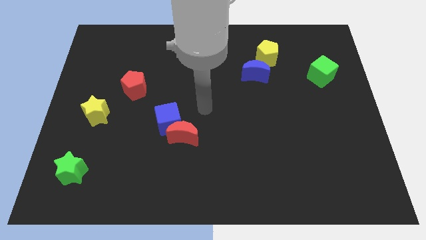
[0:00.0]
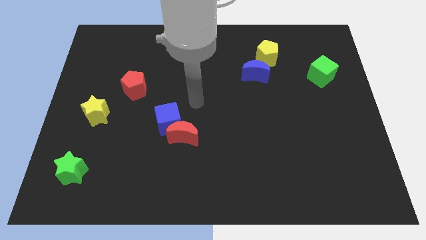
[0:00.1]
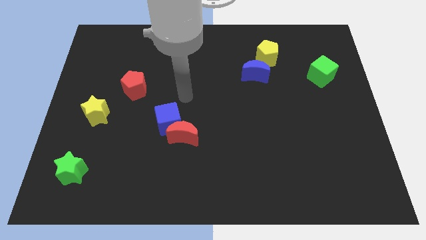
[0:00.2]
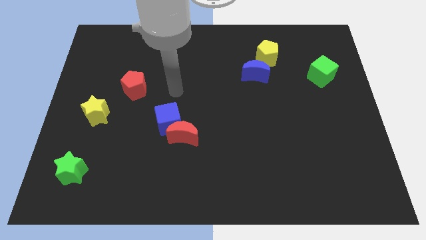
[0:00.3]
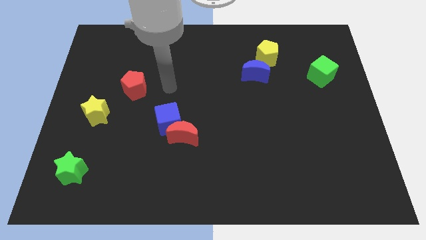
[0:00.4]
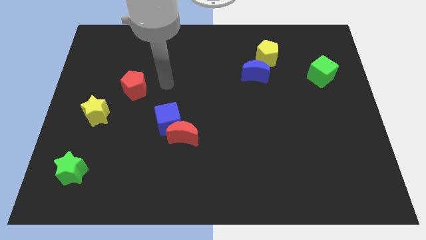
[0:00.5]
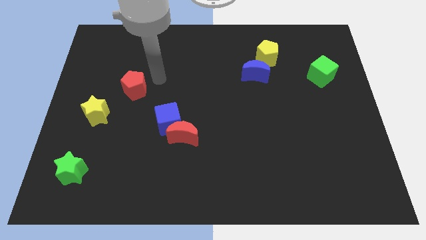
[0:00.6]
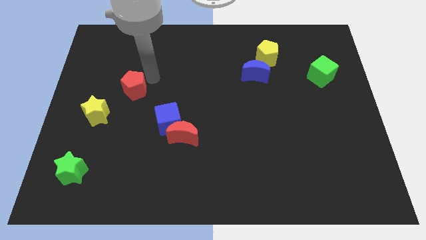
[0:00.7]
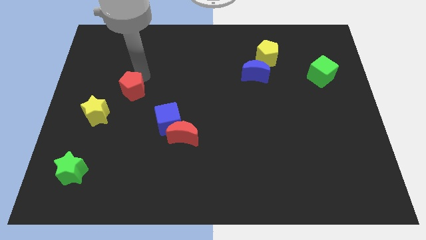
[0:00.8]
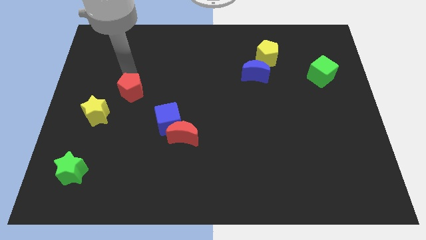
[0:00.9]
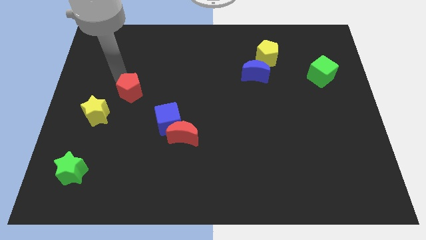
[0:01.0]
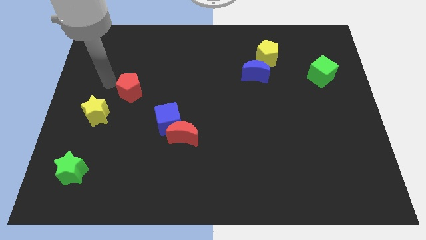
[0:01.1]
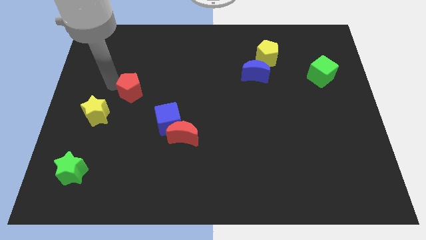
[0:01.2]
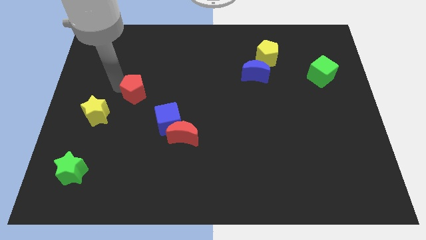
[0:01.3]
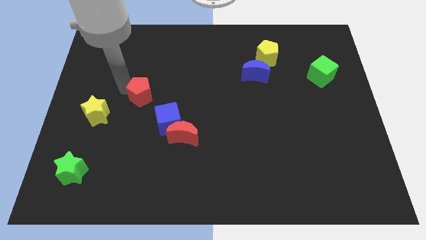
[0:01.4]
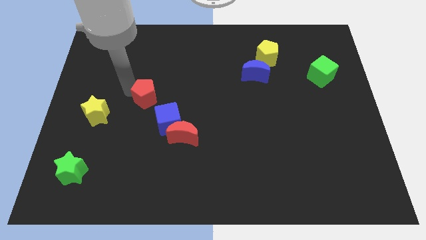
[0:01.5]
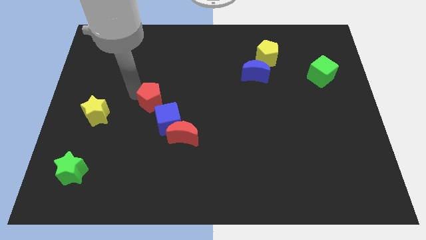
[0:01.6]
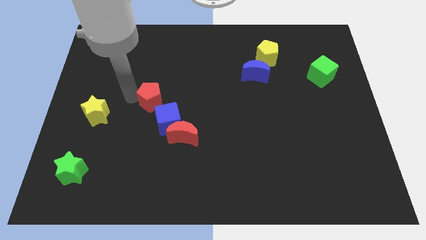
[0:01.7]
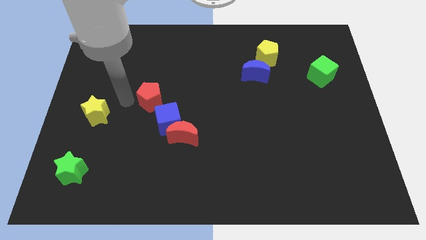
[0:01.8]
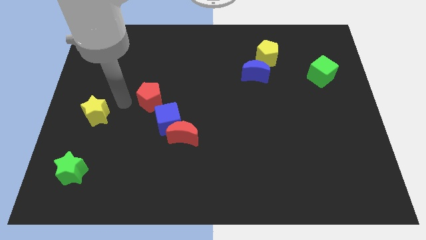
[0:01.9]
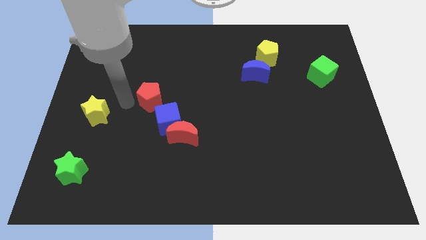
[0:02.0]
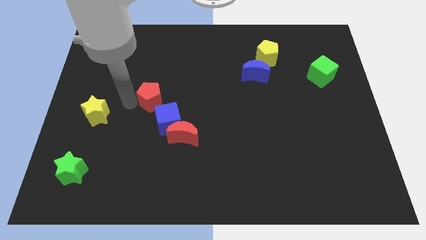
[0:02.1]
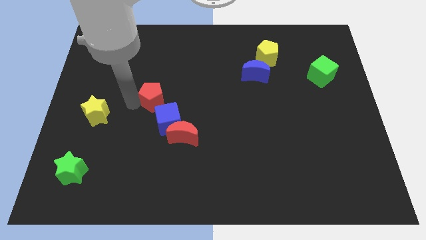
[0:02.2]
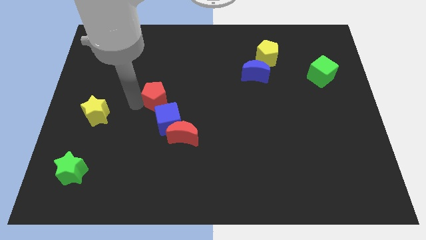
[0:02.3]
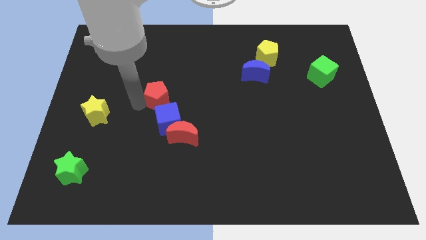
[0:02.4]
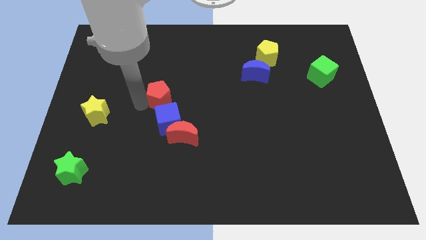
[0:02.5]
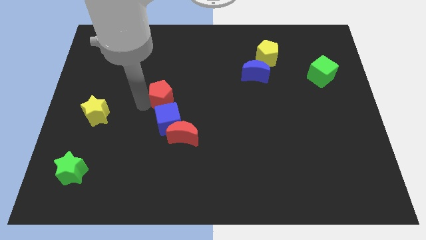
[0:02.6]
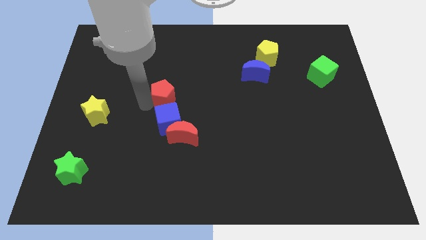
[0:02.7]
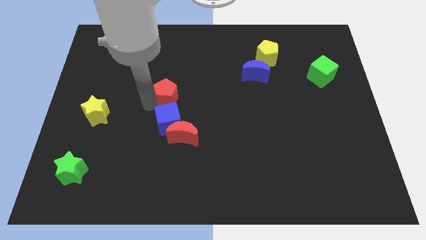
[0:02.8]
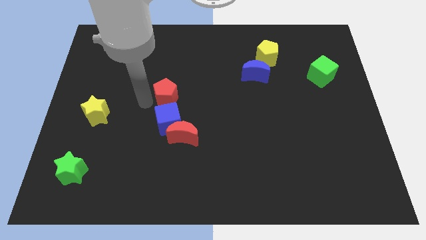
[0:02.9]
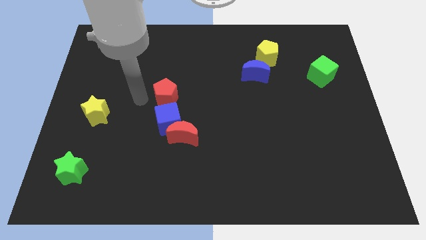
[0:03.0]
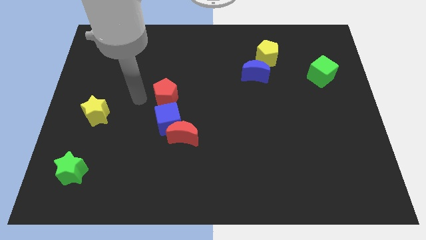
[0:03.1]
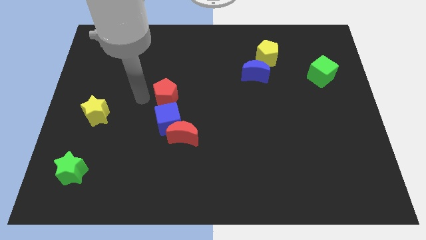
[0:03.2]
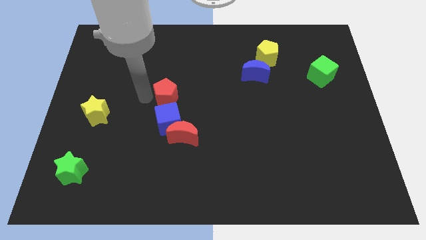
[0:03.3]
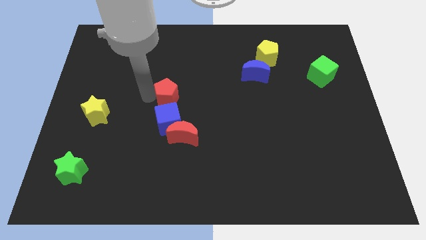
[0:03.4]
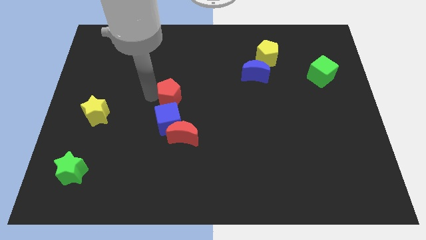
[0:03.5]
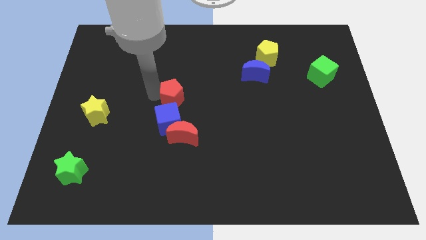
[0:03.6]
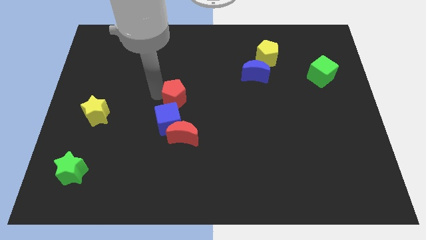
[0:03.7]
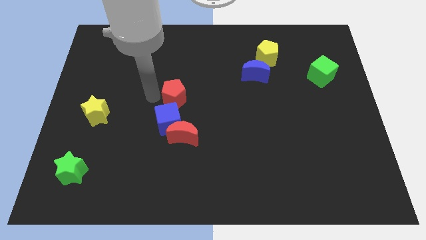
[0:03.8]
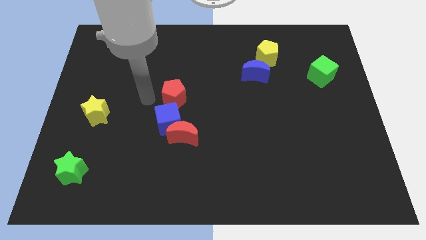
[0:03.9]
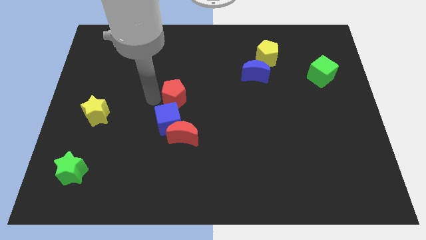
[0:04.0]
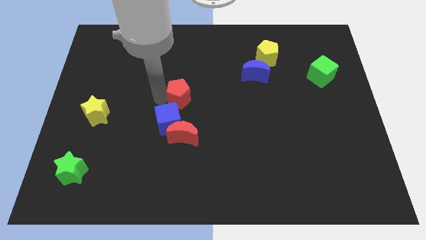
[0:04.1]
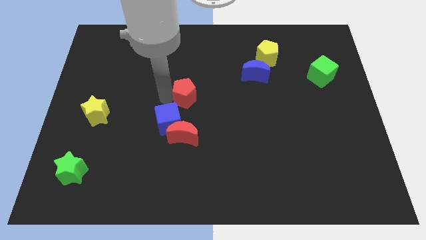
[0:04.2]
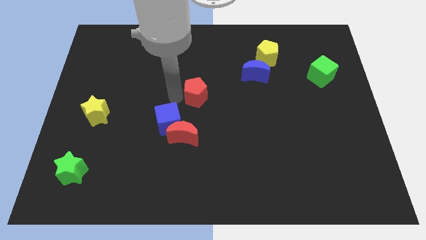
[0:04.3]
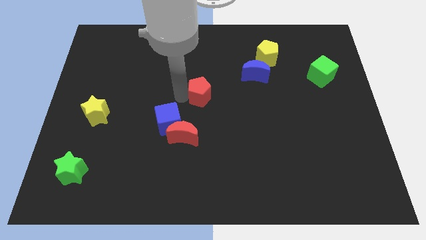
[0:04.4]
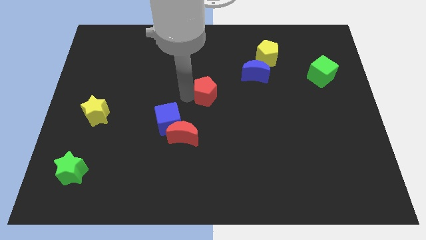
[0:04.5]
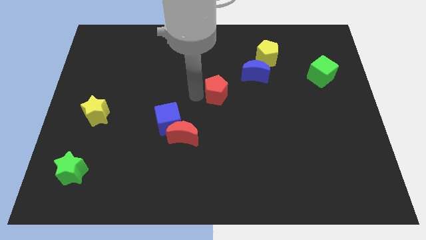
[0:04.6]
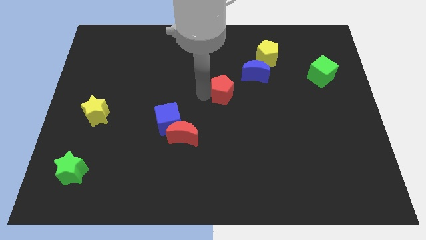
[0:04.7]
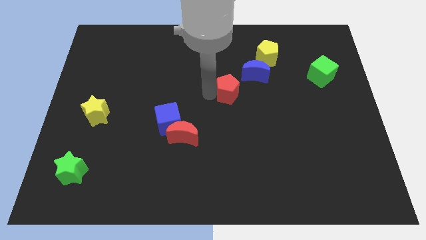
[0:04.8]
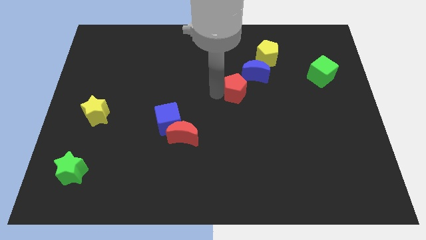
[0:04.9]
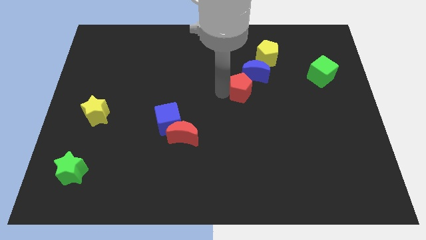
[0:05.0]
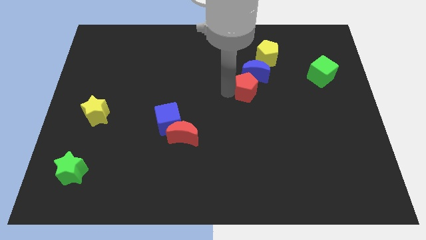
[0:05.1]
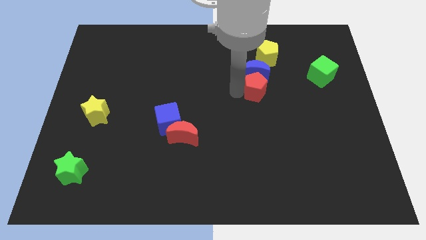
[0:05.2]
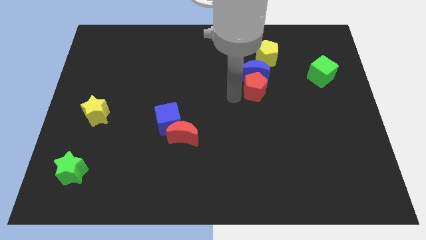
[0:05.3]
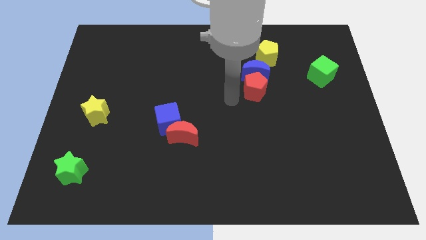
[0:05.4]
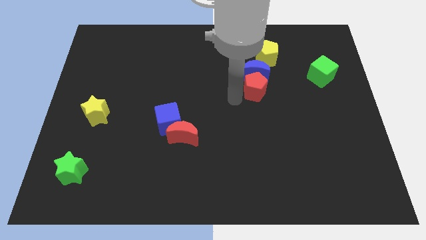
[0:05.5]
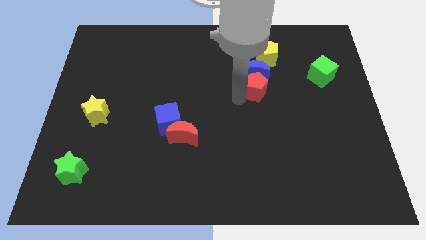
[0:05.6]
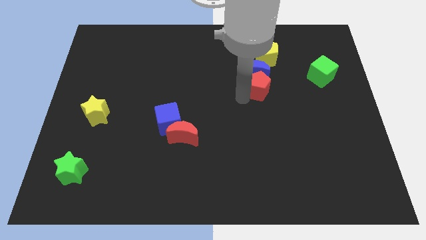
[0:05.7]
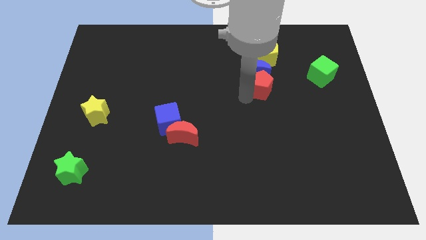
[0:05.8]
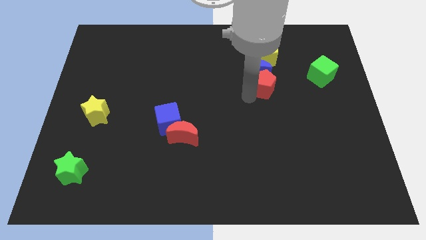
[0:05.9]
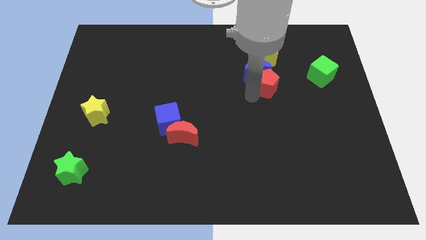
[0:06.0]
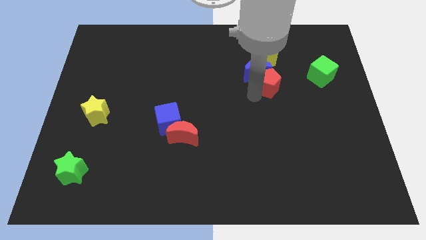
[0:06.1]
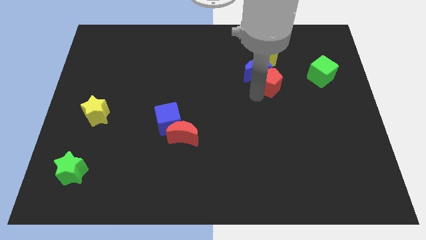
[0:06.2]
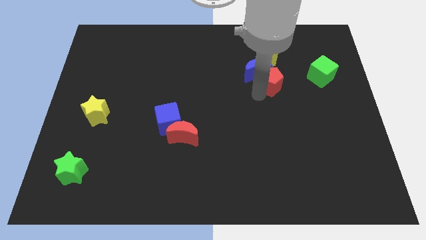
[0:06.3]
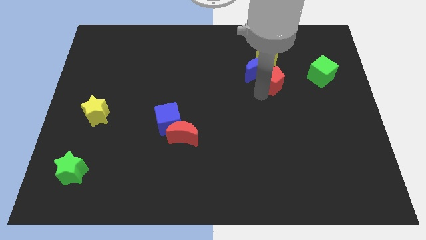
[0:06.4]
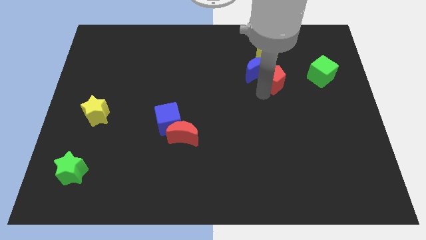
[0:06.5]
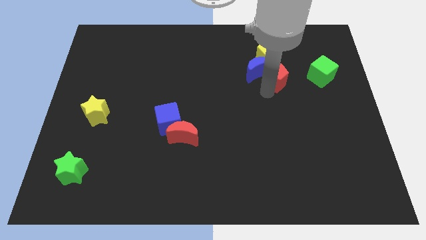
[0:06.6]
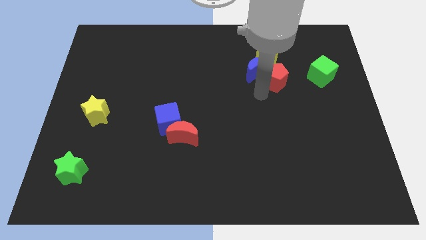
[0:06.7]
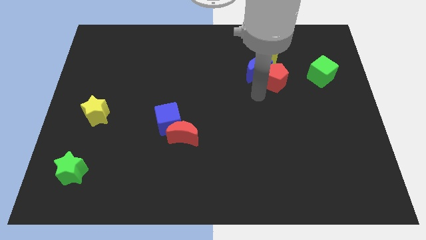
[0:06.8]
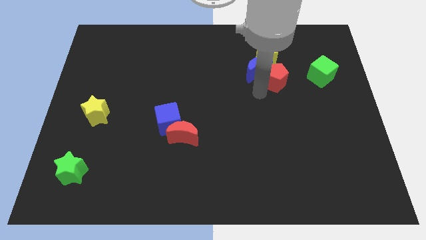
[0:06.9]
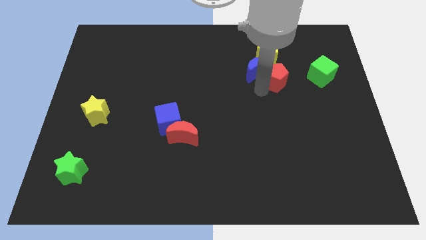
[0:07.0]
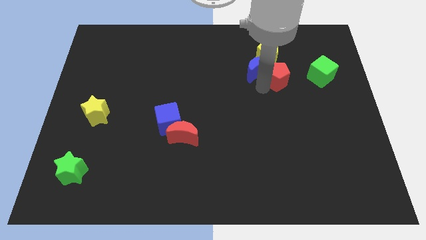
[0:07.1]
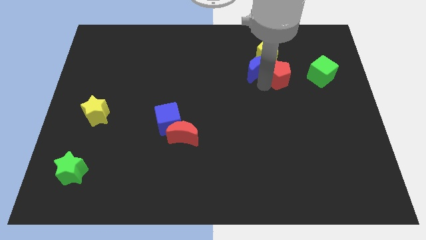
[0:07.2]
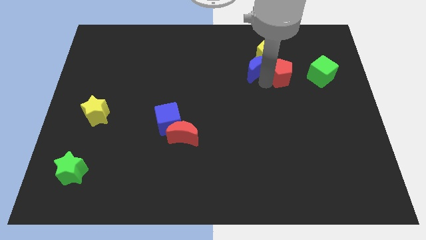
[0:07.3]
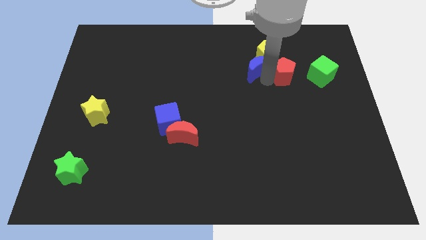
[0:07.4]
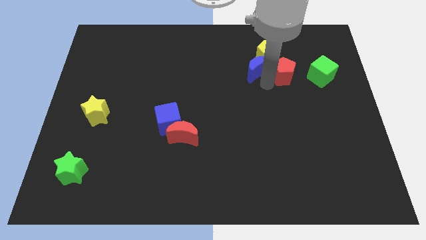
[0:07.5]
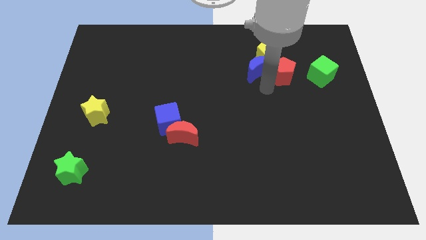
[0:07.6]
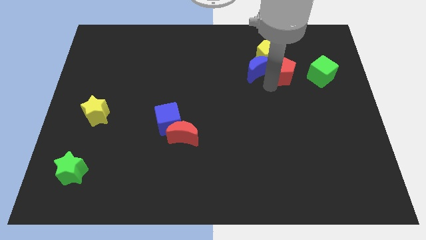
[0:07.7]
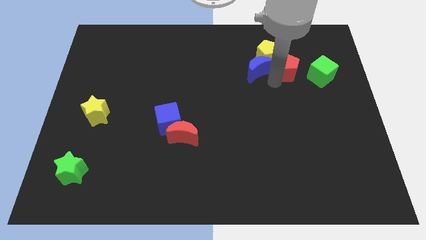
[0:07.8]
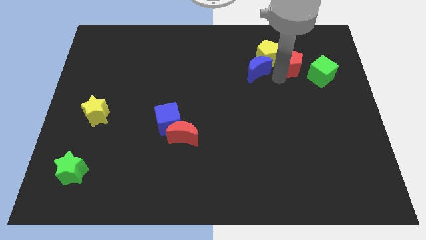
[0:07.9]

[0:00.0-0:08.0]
put the red pentagon diagonally up and to the left of the green cube
